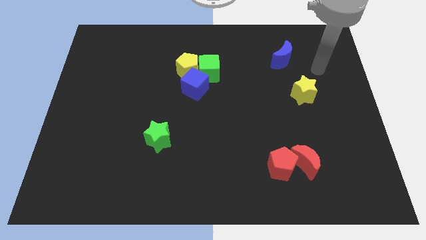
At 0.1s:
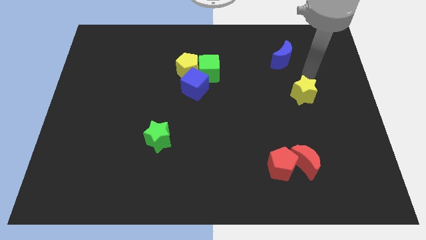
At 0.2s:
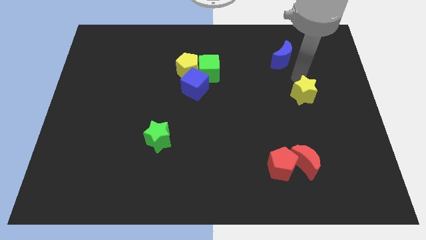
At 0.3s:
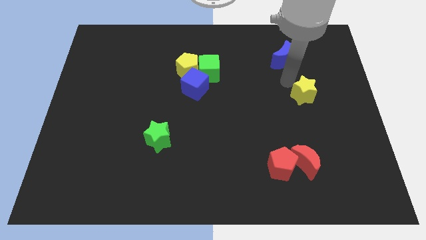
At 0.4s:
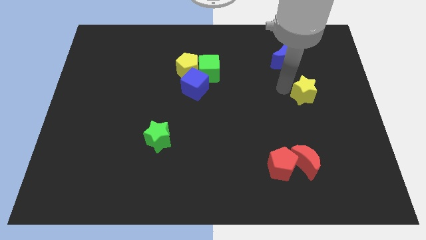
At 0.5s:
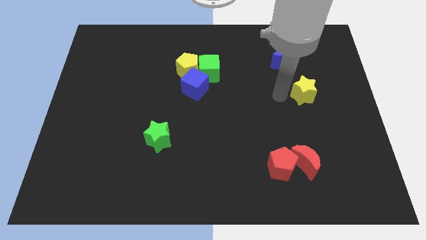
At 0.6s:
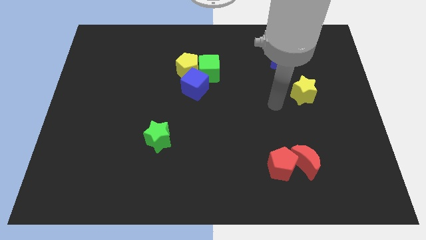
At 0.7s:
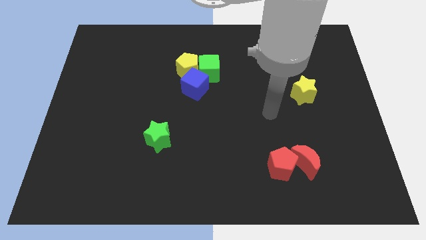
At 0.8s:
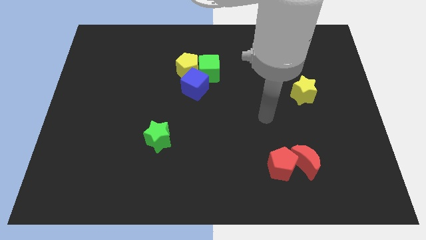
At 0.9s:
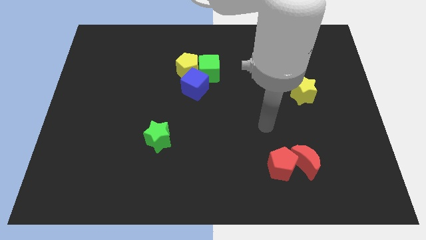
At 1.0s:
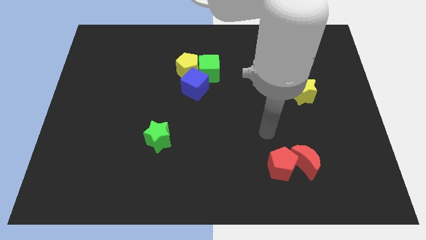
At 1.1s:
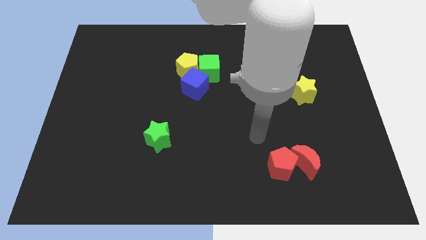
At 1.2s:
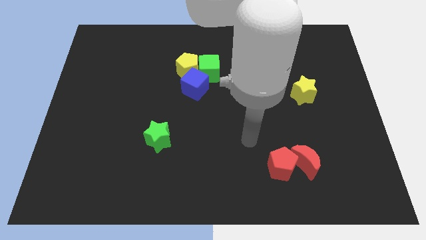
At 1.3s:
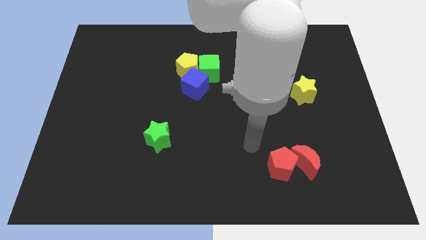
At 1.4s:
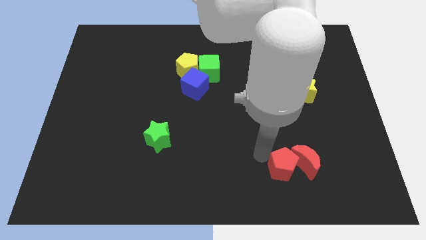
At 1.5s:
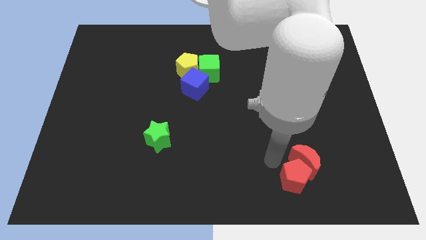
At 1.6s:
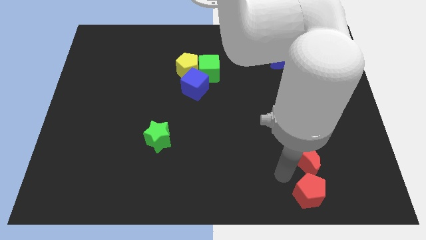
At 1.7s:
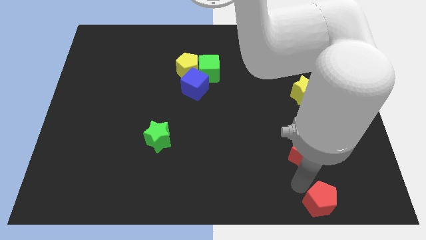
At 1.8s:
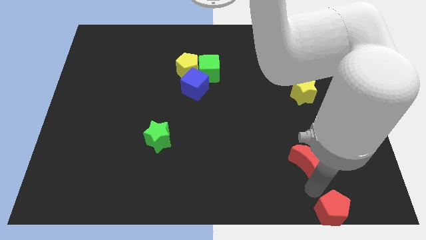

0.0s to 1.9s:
pull the red moon apart from the red pentagon

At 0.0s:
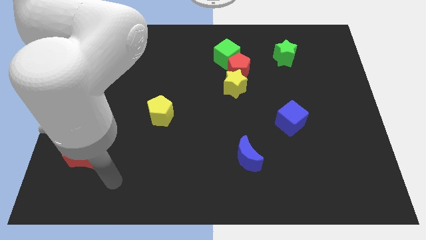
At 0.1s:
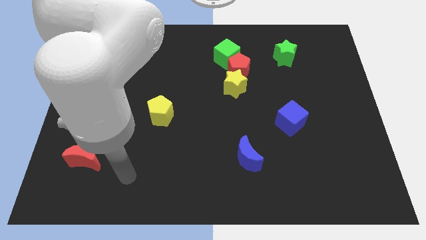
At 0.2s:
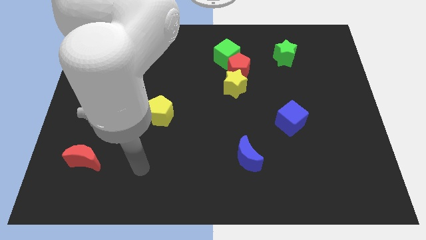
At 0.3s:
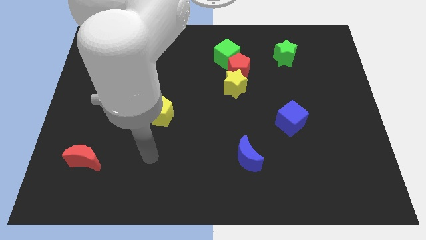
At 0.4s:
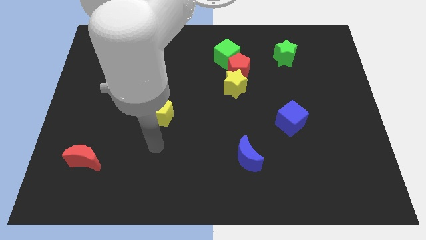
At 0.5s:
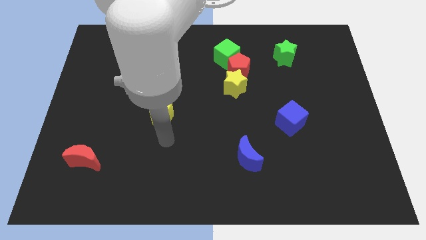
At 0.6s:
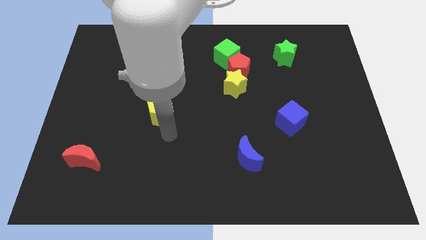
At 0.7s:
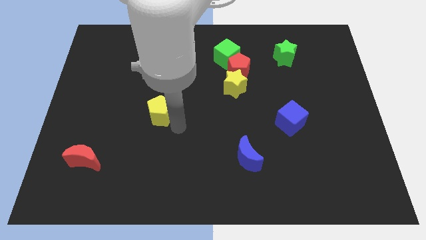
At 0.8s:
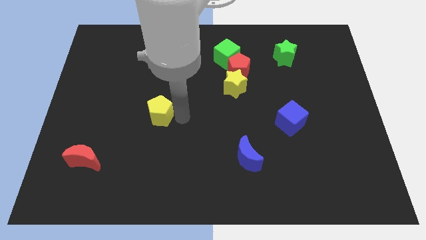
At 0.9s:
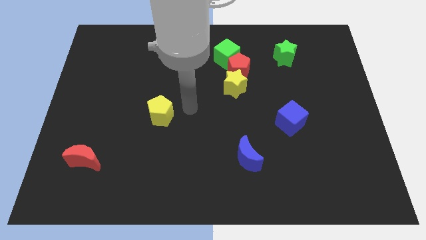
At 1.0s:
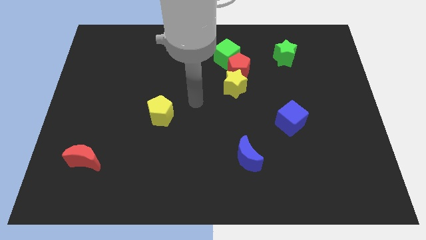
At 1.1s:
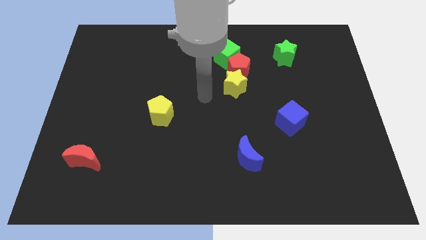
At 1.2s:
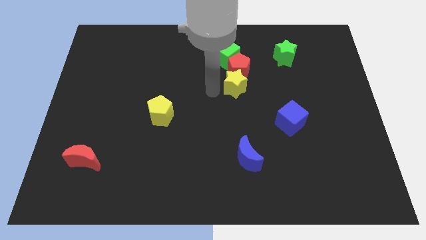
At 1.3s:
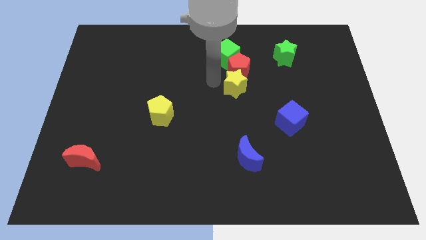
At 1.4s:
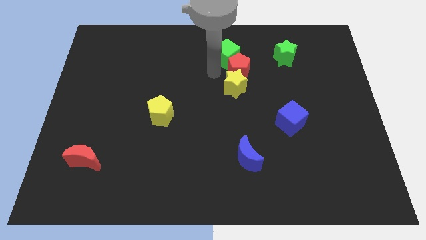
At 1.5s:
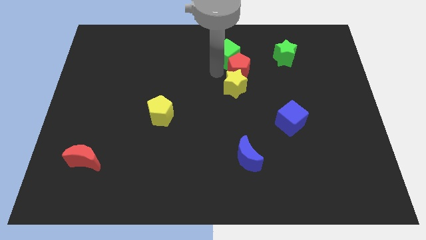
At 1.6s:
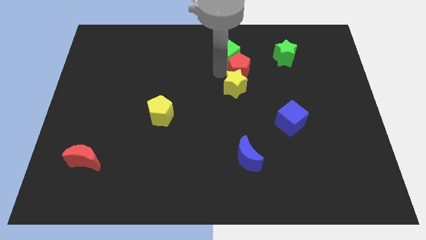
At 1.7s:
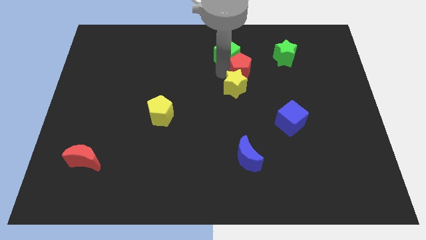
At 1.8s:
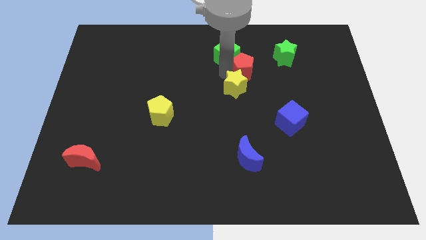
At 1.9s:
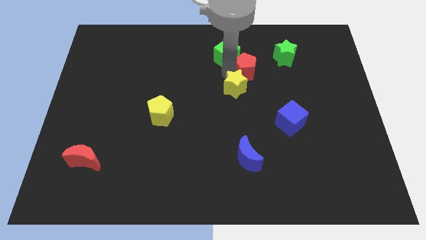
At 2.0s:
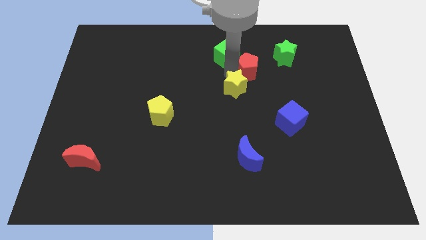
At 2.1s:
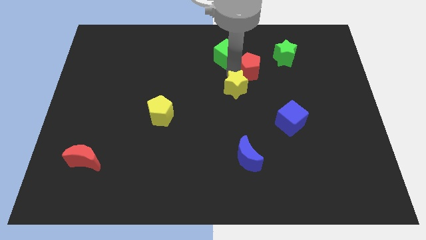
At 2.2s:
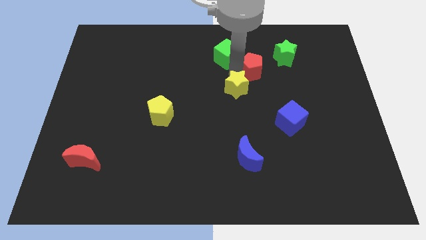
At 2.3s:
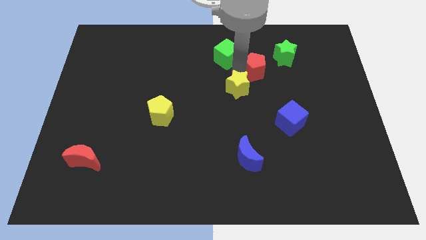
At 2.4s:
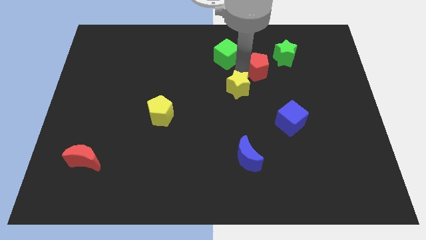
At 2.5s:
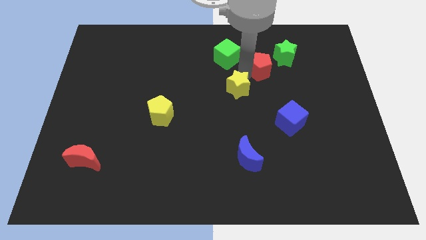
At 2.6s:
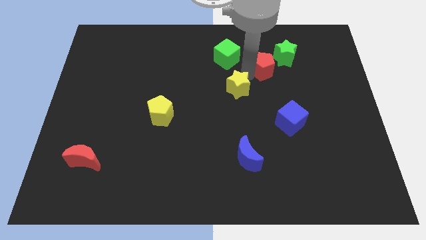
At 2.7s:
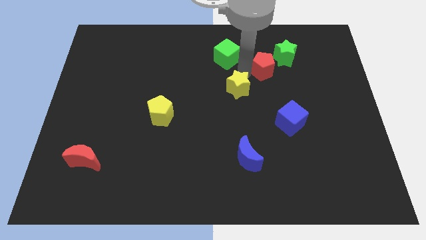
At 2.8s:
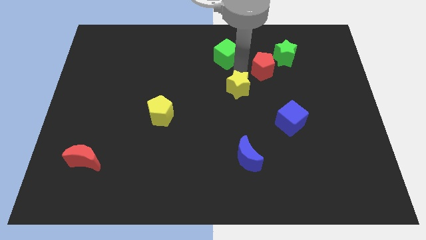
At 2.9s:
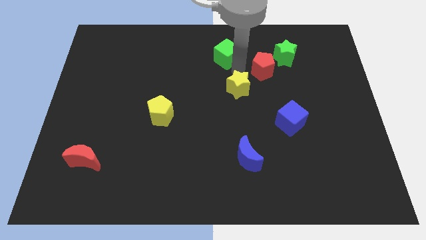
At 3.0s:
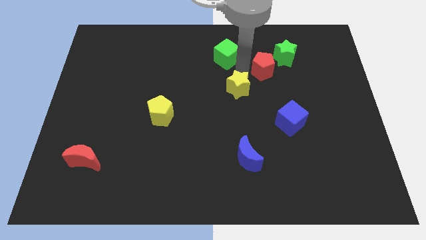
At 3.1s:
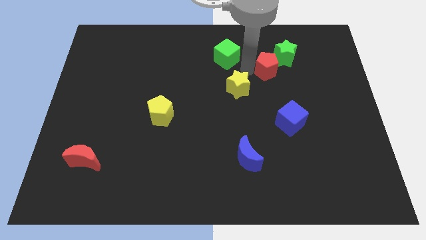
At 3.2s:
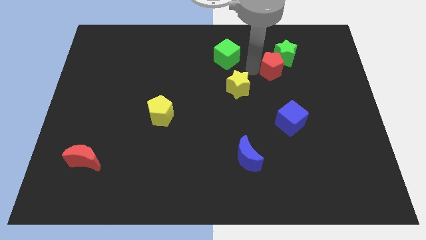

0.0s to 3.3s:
pull the red pentagon apart from the yellow star and green cube

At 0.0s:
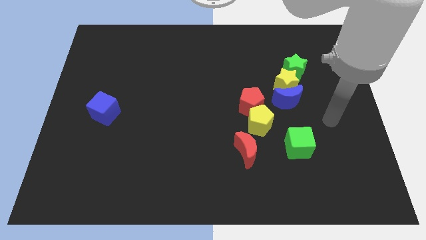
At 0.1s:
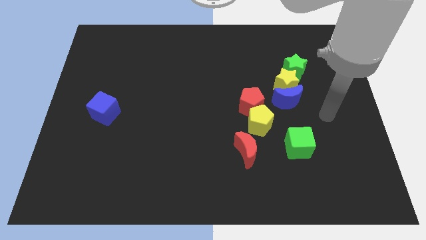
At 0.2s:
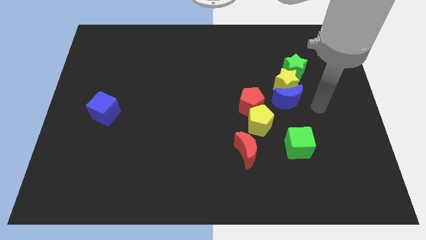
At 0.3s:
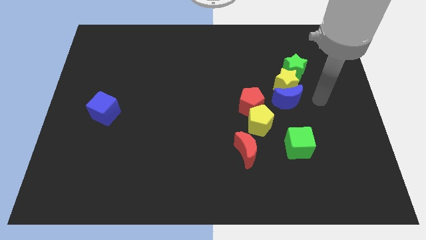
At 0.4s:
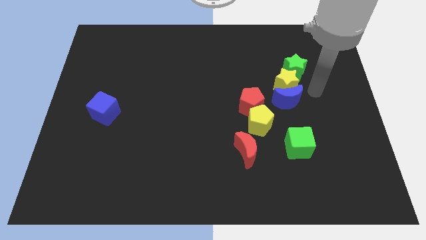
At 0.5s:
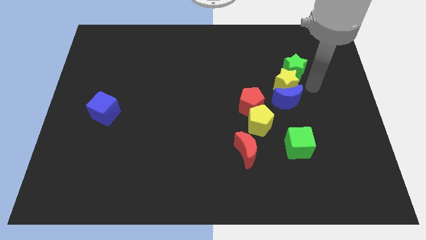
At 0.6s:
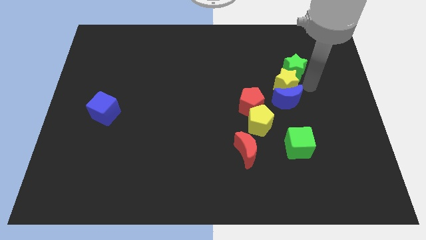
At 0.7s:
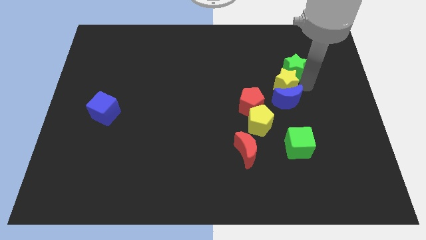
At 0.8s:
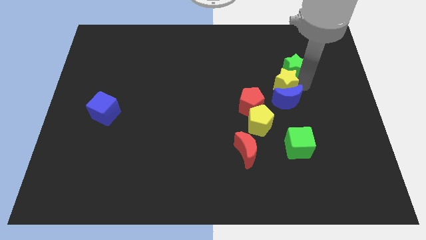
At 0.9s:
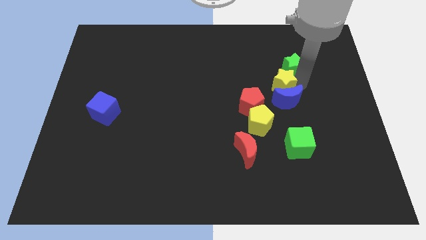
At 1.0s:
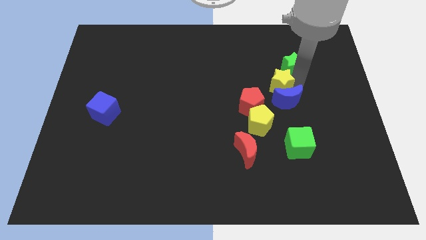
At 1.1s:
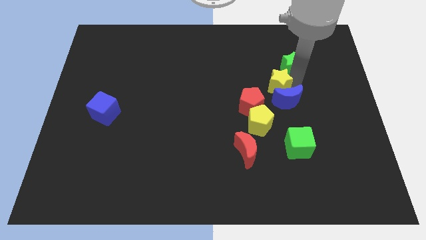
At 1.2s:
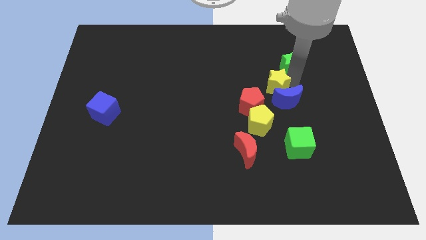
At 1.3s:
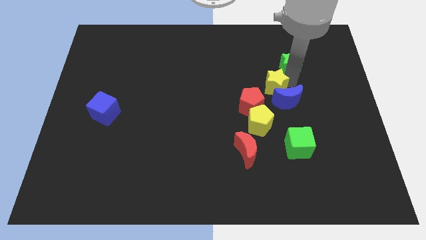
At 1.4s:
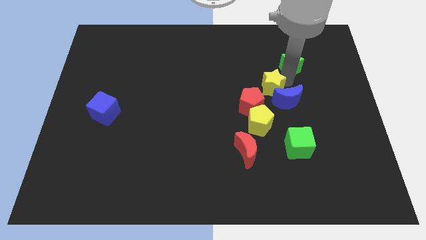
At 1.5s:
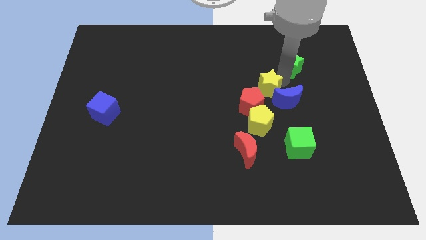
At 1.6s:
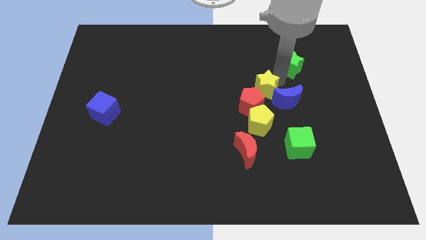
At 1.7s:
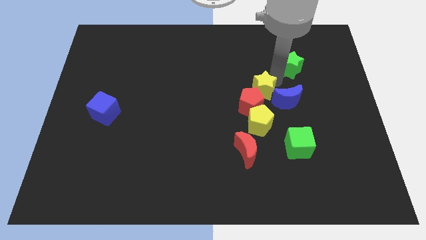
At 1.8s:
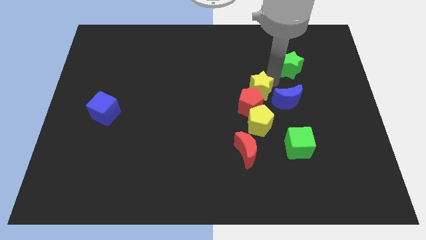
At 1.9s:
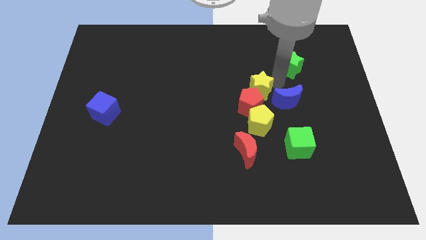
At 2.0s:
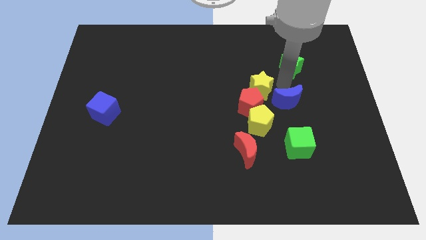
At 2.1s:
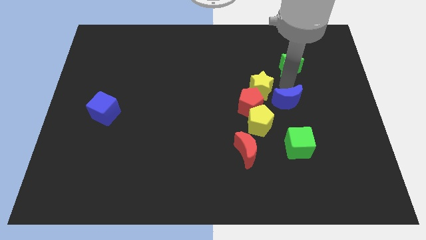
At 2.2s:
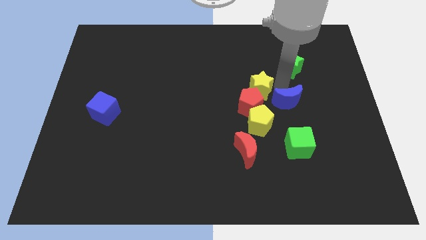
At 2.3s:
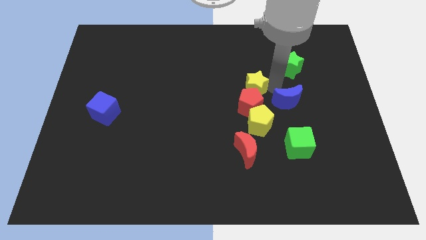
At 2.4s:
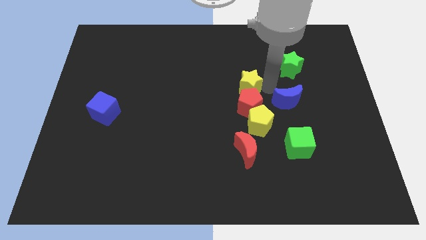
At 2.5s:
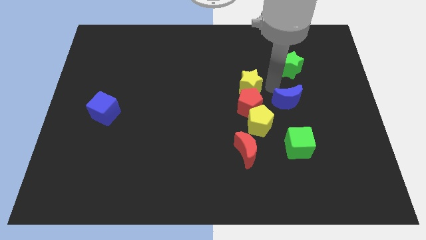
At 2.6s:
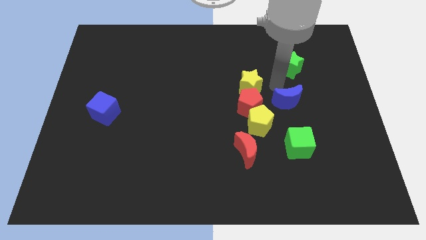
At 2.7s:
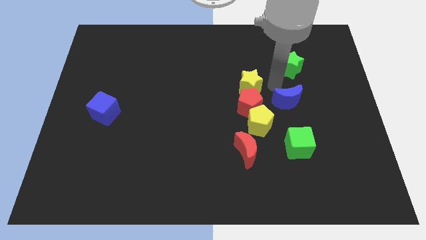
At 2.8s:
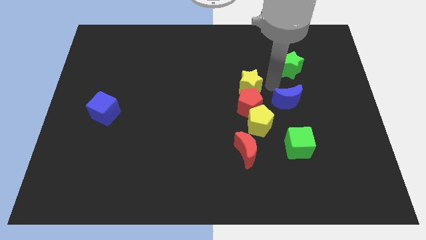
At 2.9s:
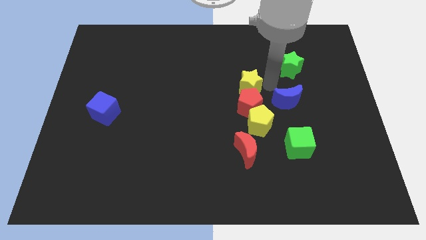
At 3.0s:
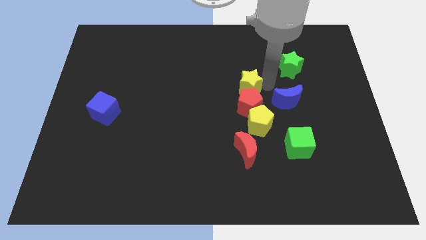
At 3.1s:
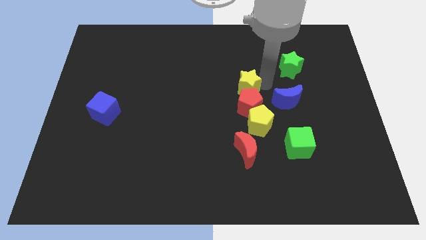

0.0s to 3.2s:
pull the yellow star apart from the blue moon and green star

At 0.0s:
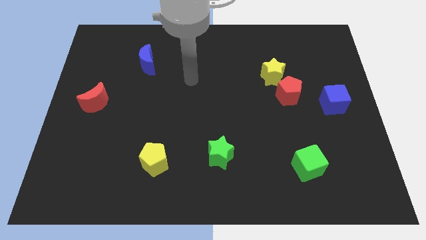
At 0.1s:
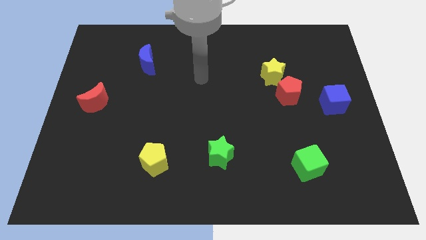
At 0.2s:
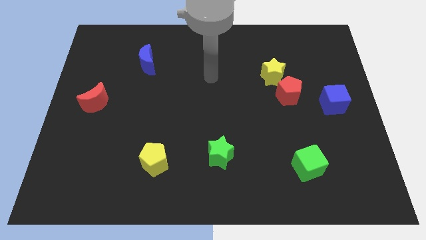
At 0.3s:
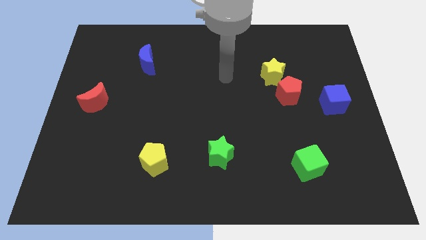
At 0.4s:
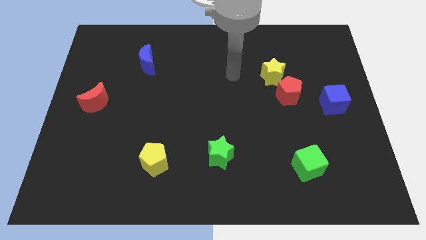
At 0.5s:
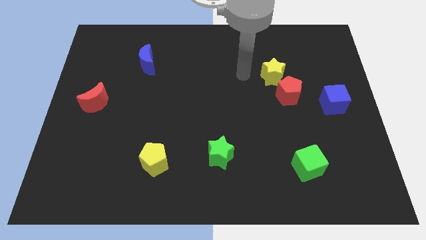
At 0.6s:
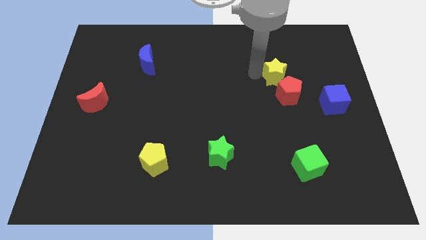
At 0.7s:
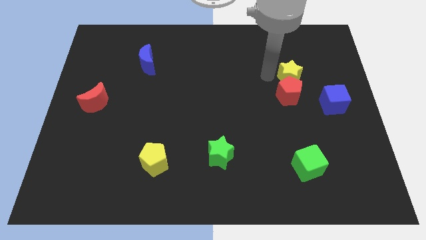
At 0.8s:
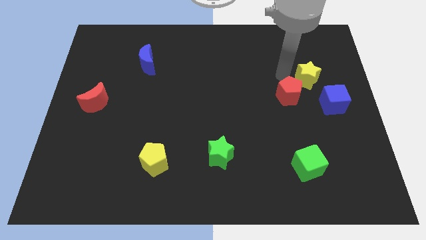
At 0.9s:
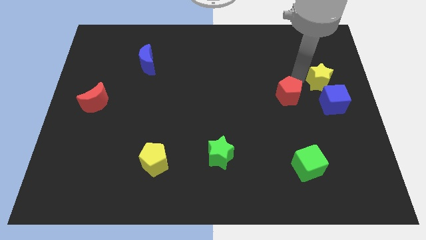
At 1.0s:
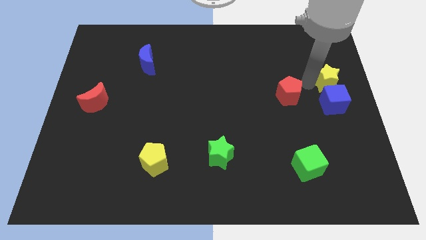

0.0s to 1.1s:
move the red pentagon away from the yellow star
